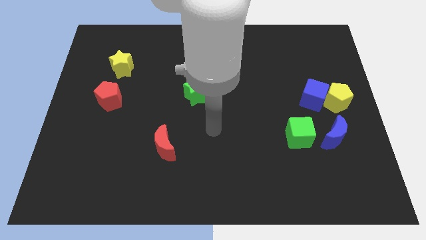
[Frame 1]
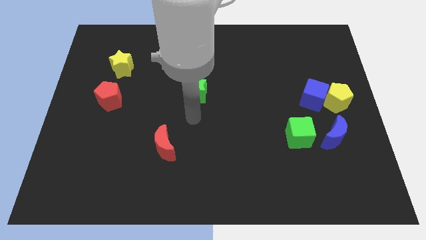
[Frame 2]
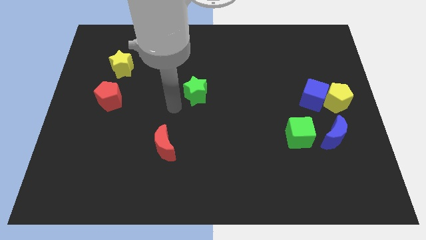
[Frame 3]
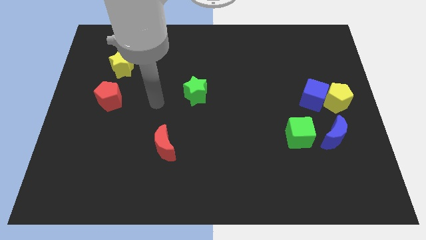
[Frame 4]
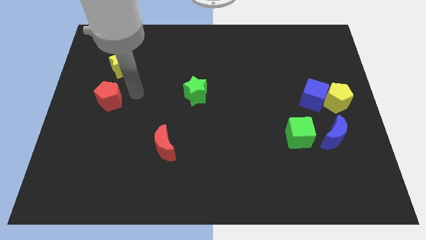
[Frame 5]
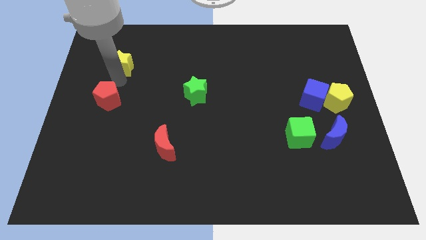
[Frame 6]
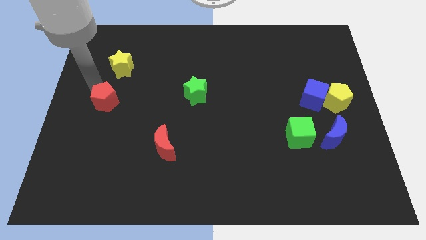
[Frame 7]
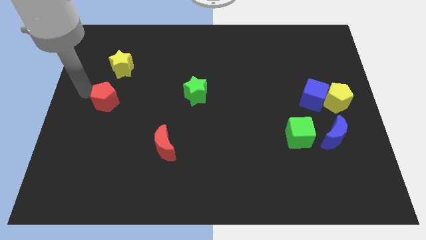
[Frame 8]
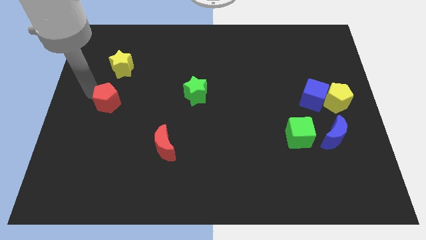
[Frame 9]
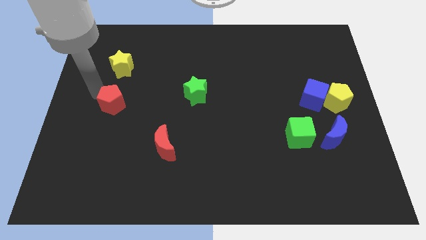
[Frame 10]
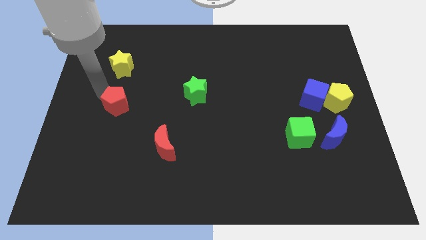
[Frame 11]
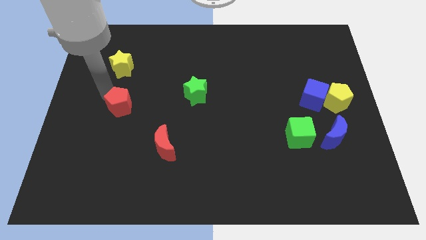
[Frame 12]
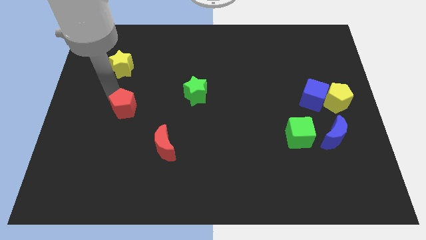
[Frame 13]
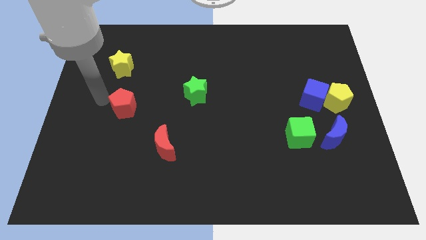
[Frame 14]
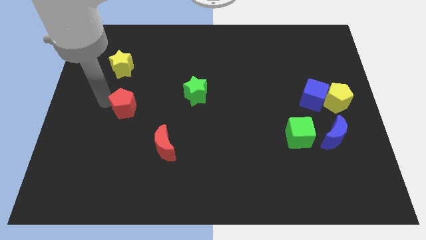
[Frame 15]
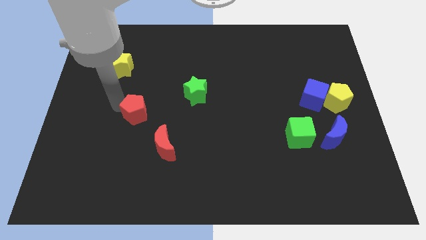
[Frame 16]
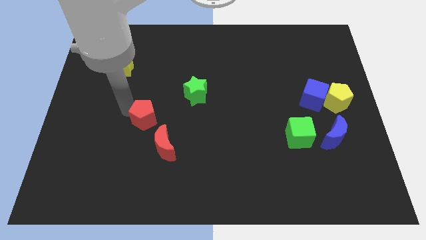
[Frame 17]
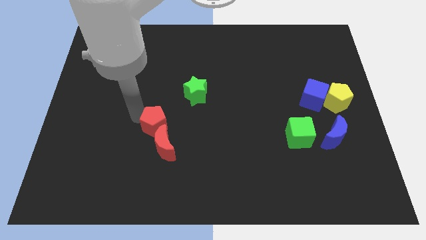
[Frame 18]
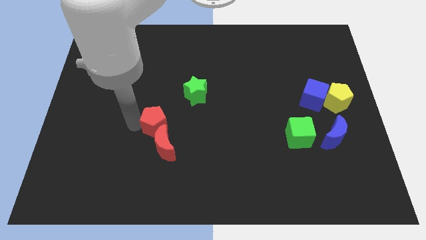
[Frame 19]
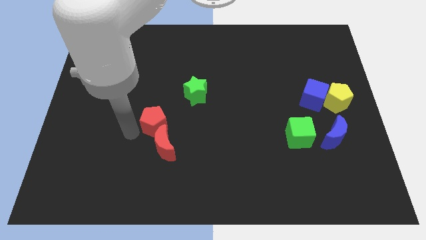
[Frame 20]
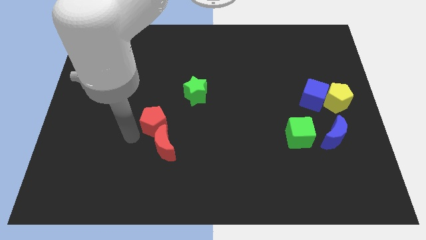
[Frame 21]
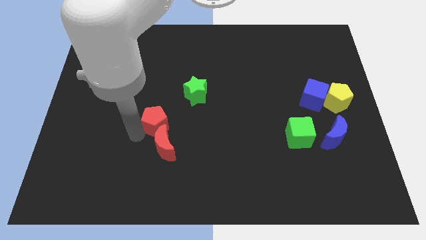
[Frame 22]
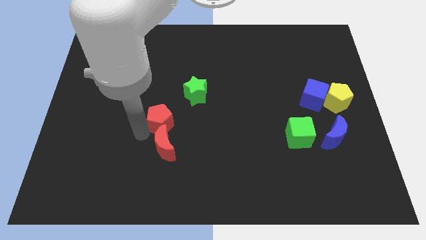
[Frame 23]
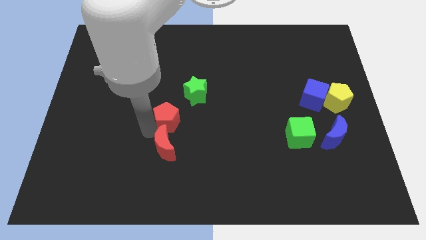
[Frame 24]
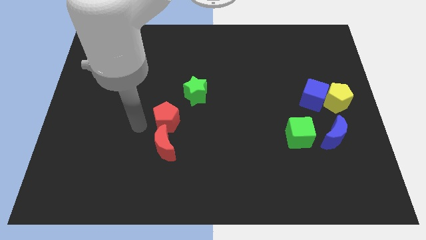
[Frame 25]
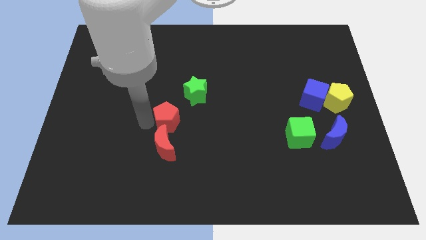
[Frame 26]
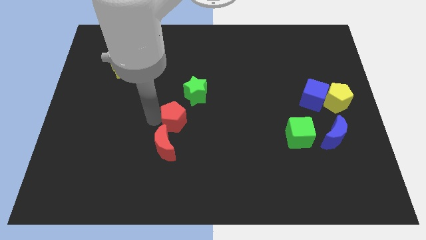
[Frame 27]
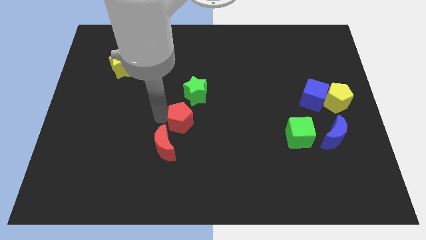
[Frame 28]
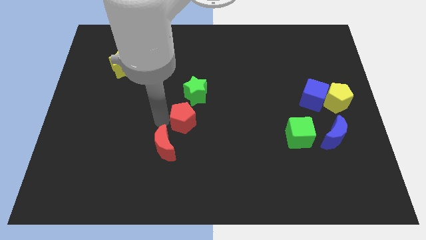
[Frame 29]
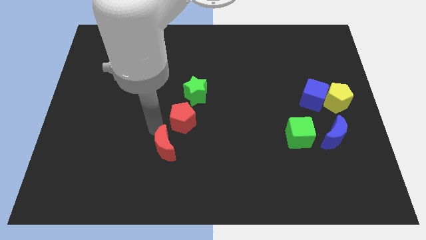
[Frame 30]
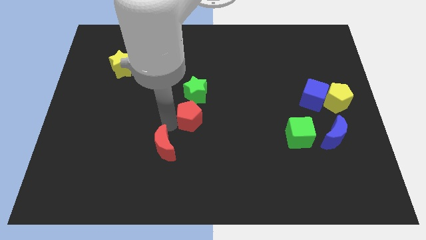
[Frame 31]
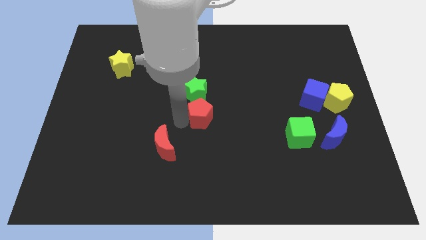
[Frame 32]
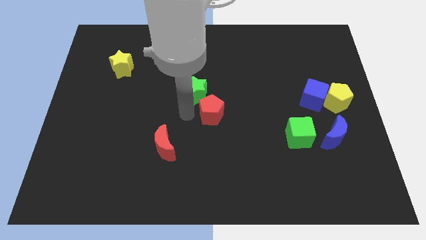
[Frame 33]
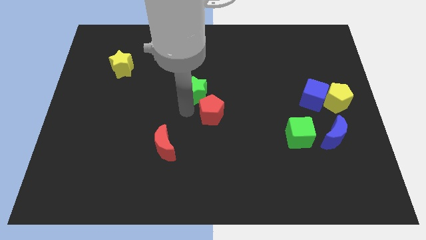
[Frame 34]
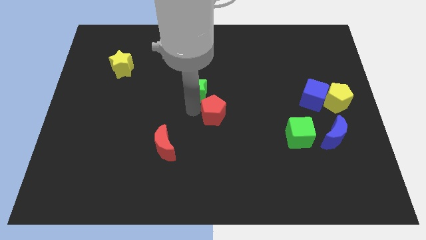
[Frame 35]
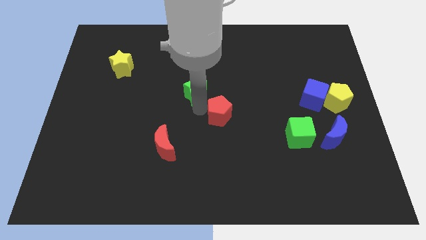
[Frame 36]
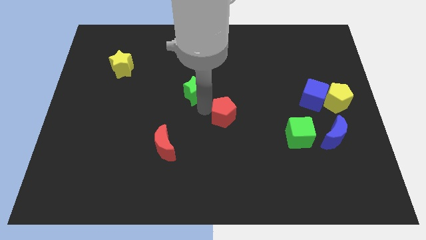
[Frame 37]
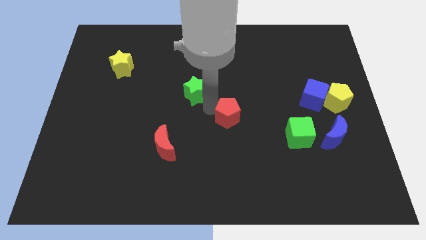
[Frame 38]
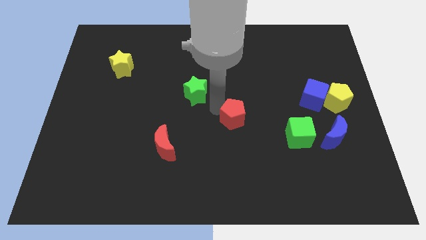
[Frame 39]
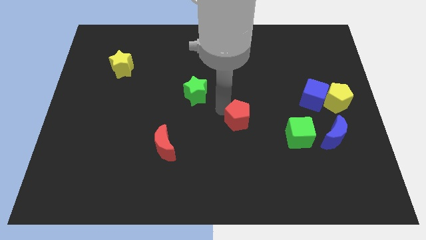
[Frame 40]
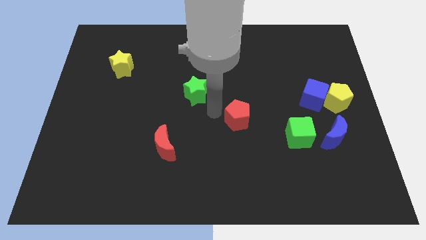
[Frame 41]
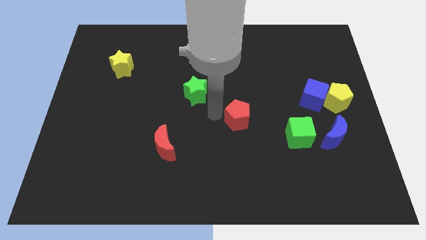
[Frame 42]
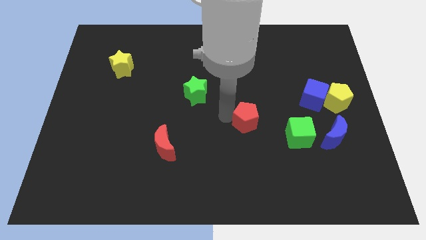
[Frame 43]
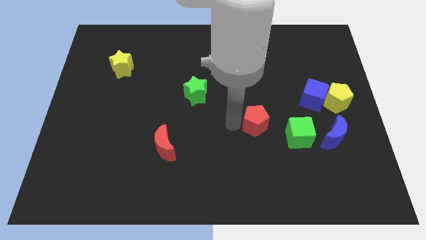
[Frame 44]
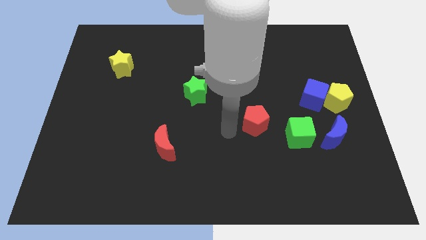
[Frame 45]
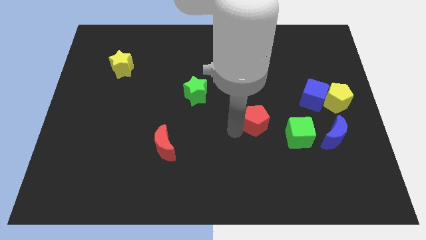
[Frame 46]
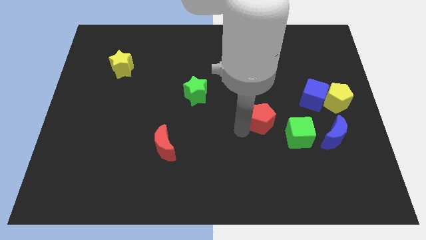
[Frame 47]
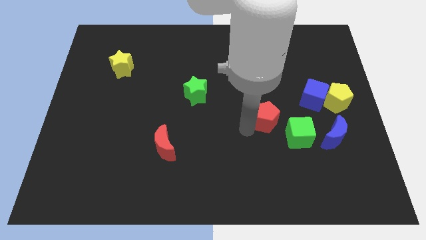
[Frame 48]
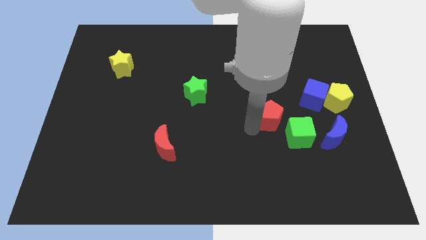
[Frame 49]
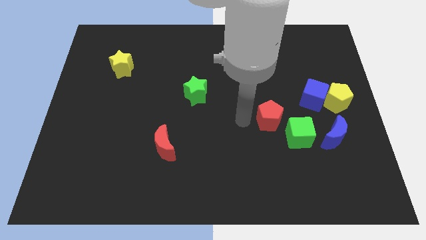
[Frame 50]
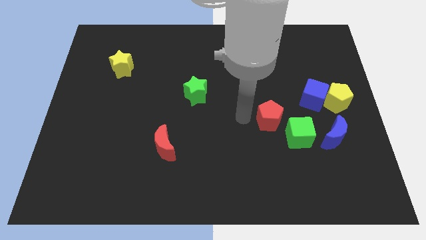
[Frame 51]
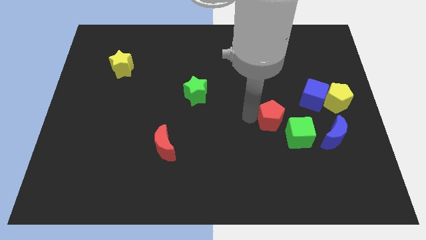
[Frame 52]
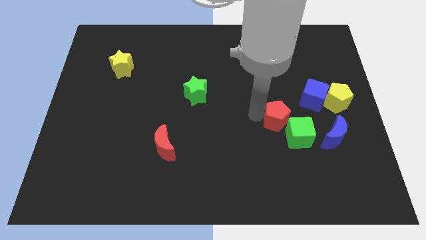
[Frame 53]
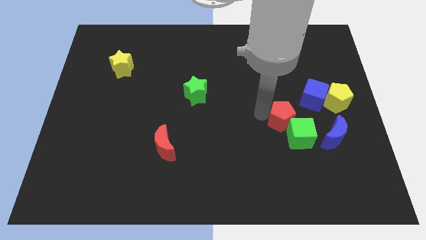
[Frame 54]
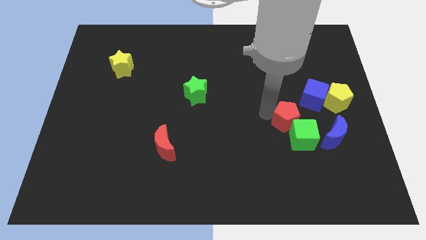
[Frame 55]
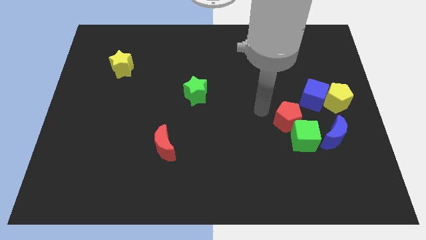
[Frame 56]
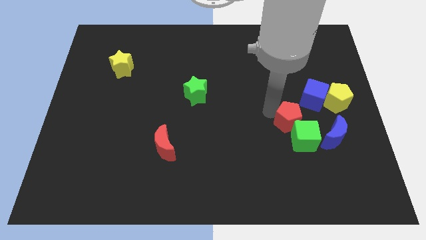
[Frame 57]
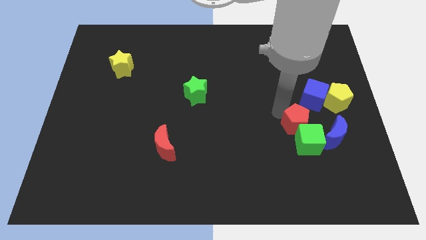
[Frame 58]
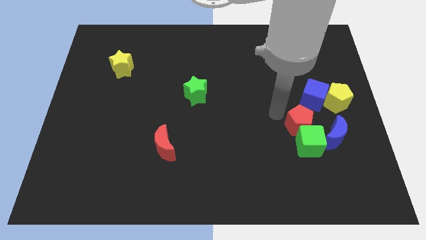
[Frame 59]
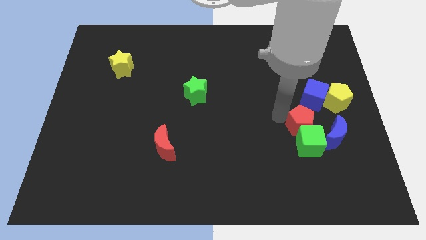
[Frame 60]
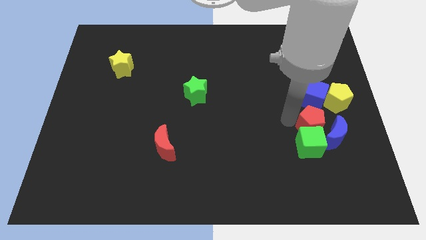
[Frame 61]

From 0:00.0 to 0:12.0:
push the red pentagon towards the blue moon

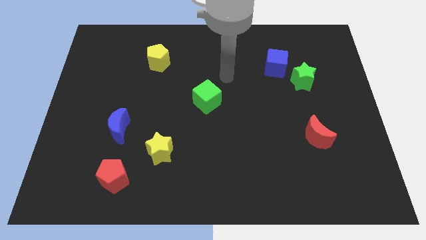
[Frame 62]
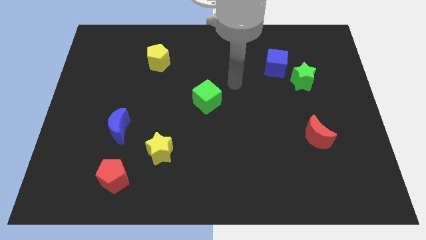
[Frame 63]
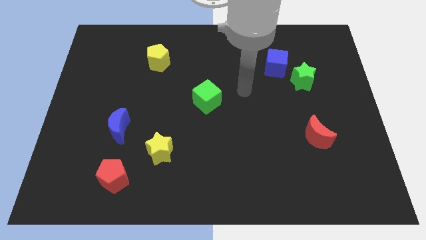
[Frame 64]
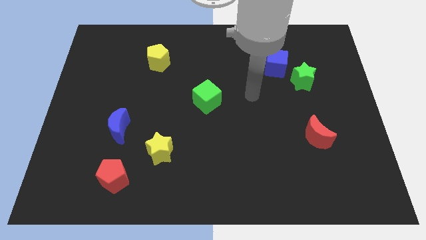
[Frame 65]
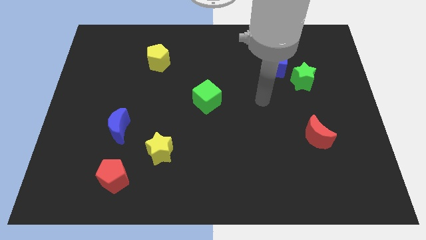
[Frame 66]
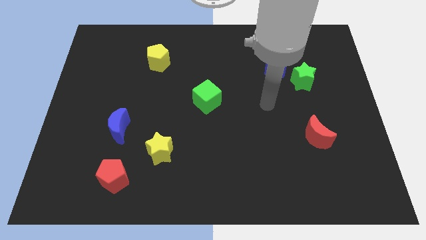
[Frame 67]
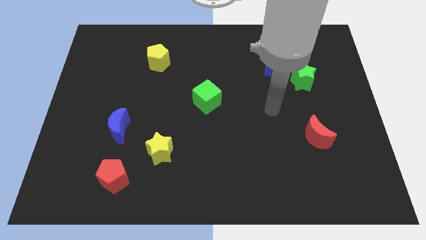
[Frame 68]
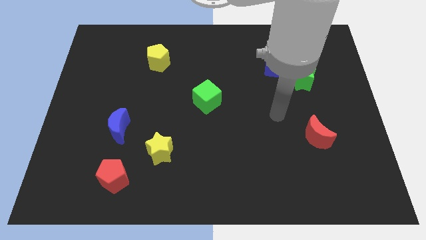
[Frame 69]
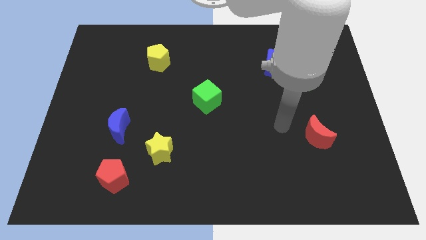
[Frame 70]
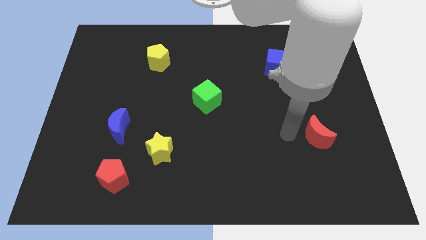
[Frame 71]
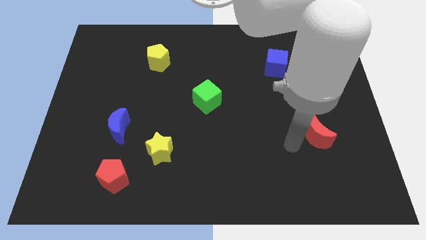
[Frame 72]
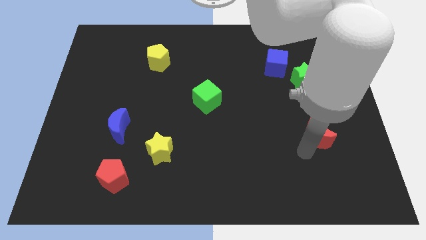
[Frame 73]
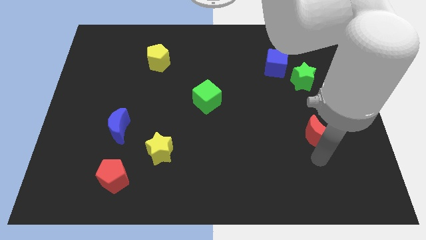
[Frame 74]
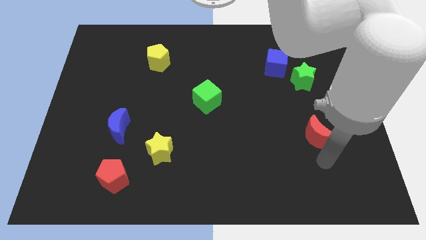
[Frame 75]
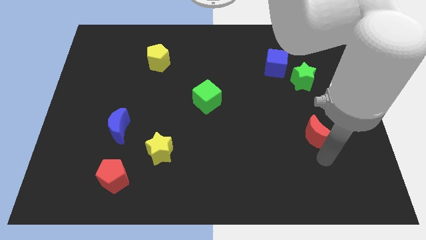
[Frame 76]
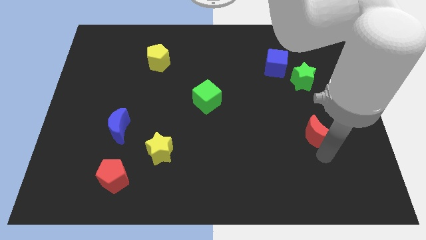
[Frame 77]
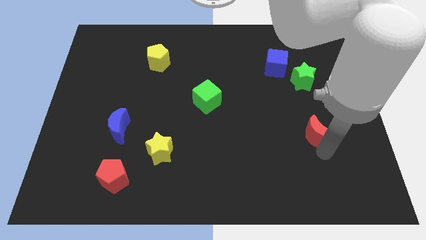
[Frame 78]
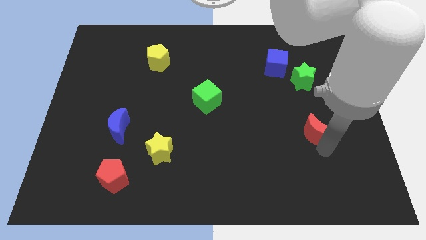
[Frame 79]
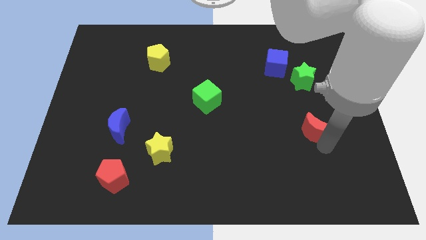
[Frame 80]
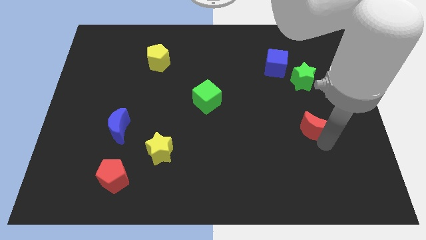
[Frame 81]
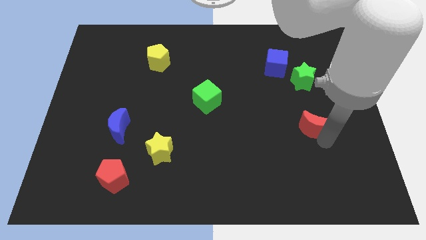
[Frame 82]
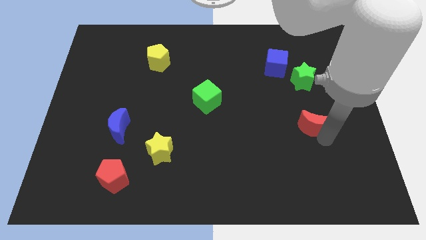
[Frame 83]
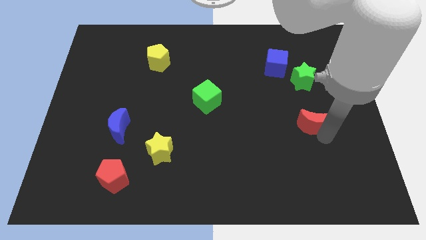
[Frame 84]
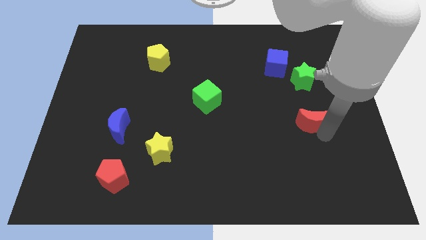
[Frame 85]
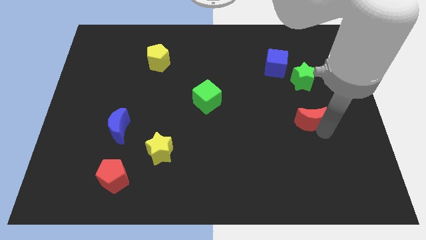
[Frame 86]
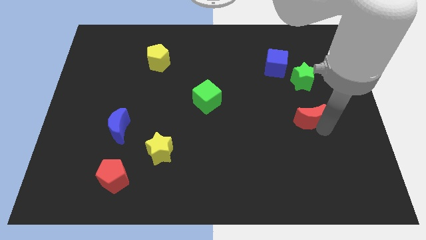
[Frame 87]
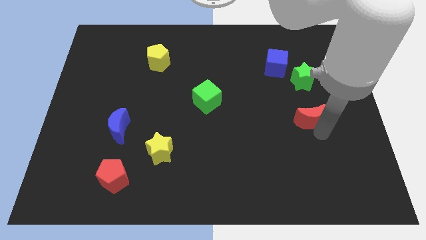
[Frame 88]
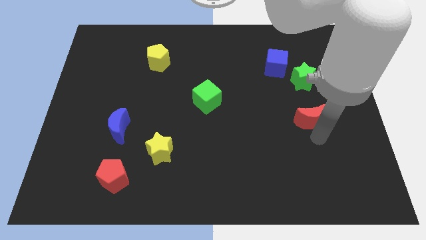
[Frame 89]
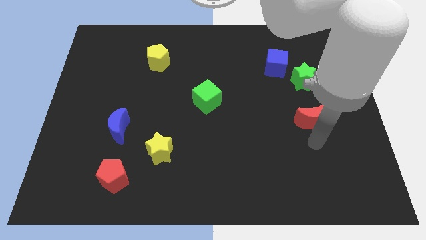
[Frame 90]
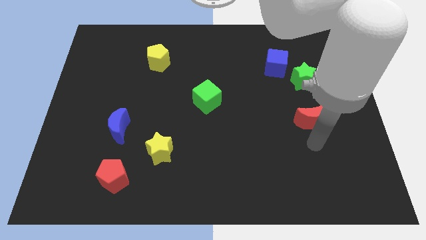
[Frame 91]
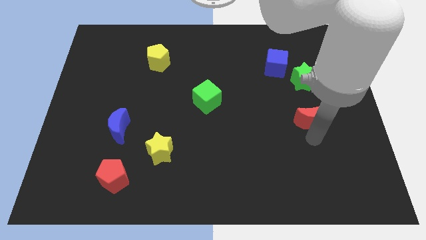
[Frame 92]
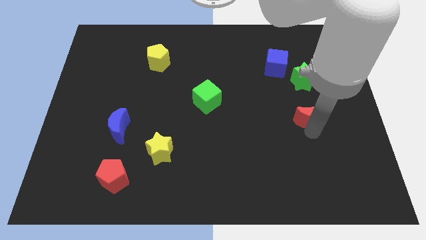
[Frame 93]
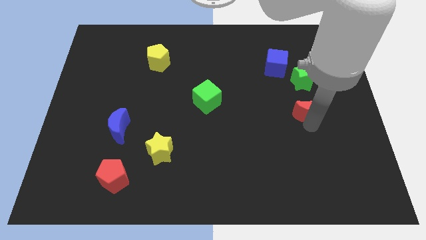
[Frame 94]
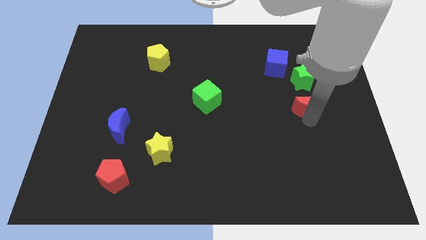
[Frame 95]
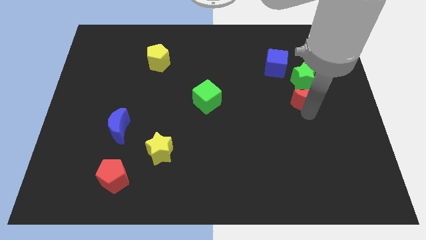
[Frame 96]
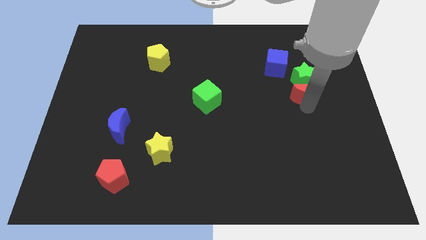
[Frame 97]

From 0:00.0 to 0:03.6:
slide the red moon towards the green star
